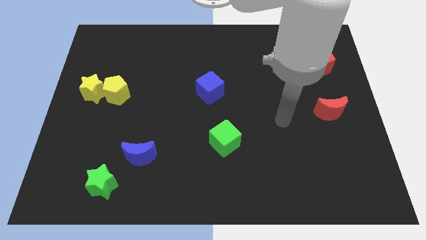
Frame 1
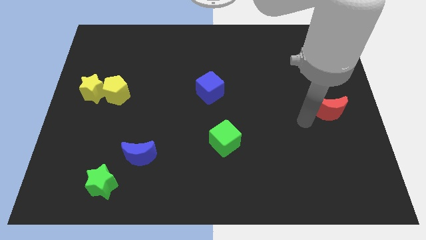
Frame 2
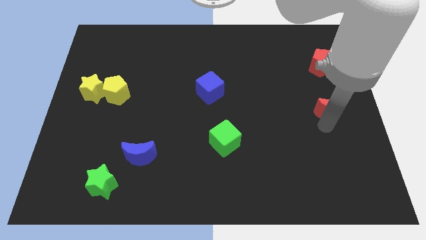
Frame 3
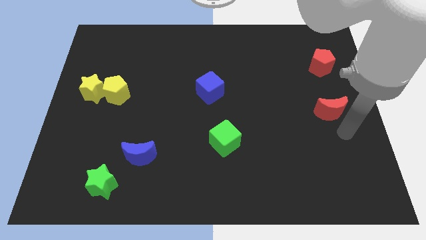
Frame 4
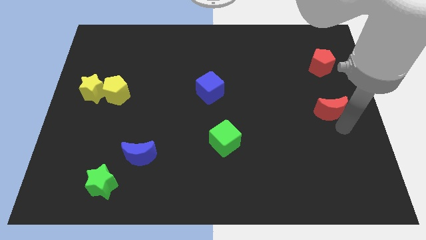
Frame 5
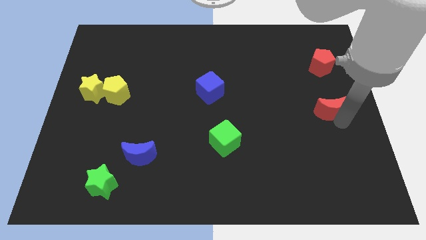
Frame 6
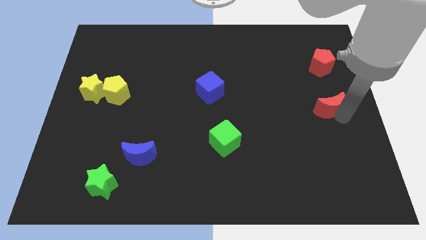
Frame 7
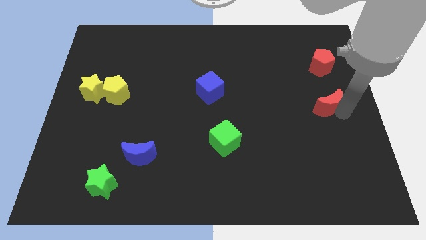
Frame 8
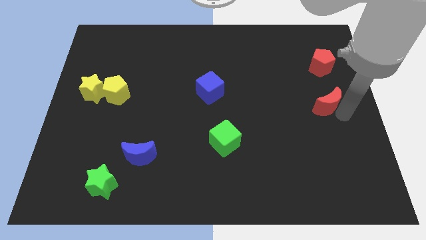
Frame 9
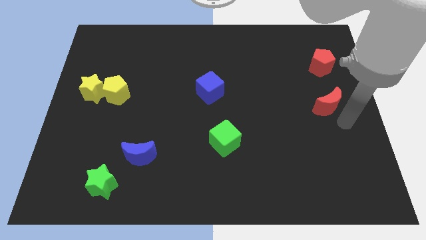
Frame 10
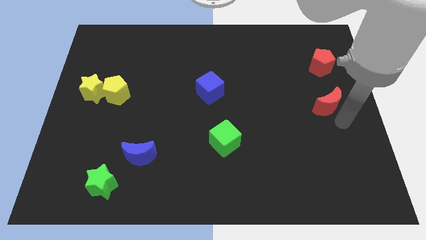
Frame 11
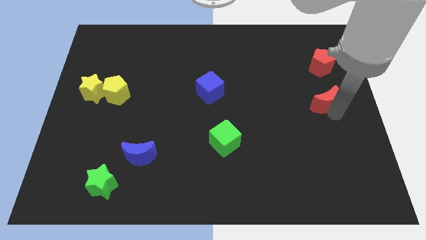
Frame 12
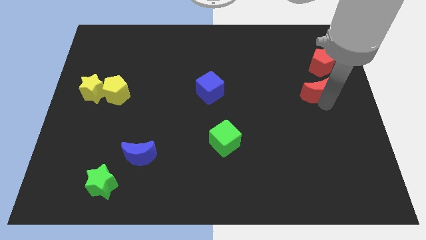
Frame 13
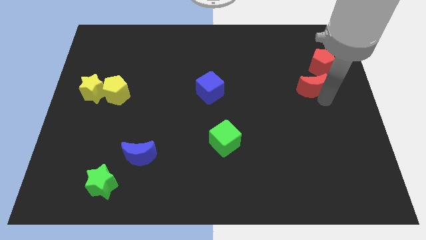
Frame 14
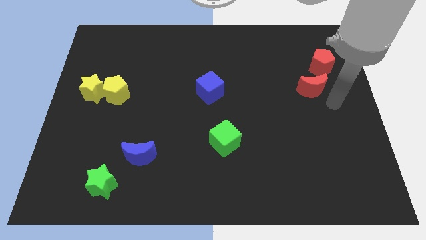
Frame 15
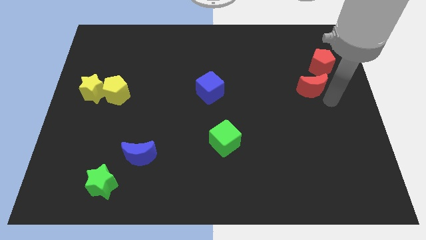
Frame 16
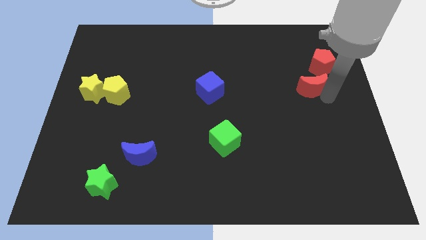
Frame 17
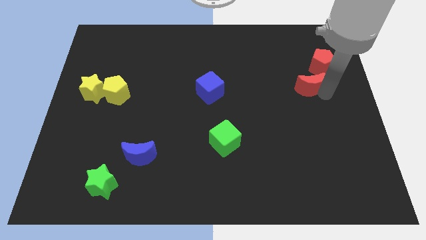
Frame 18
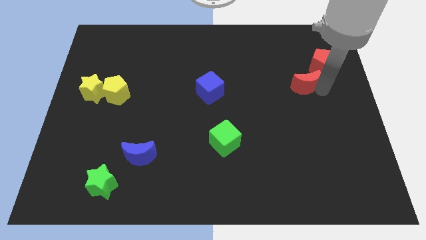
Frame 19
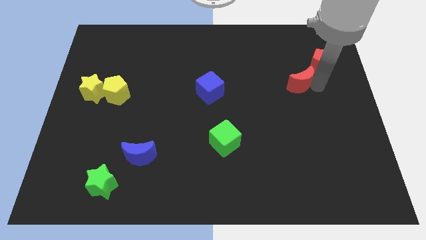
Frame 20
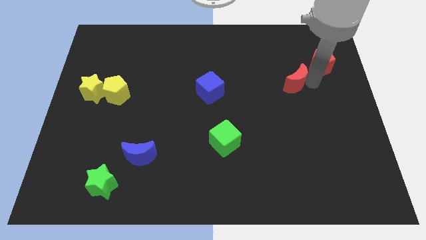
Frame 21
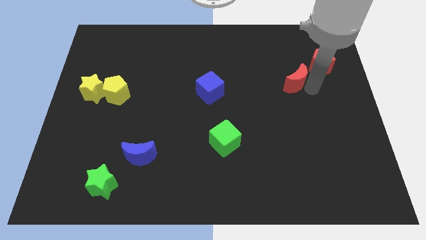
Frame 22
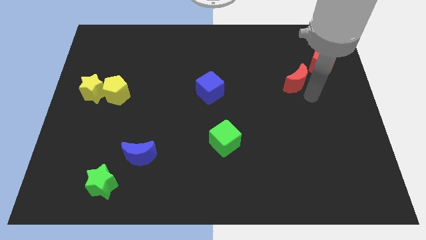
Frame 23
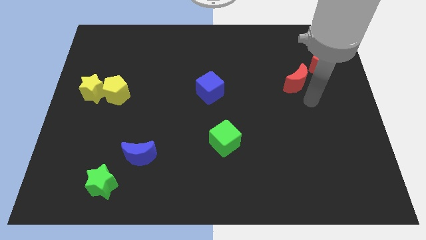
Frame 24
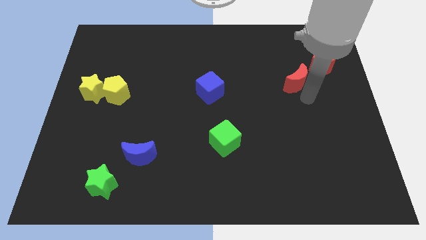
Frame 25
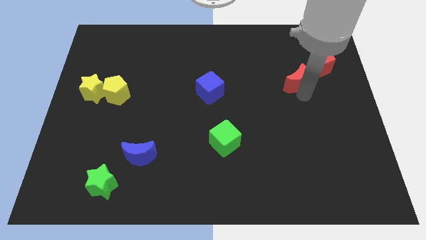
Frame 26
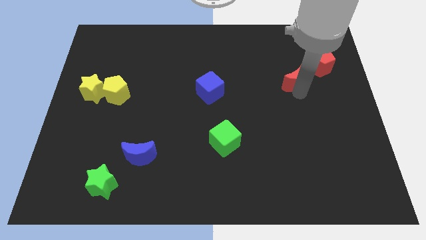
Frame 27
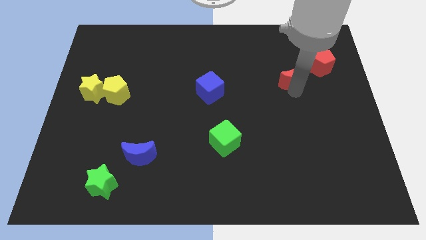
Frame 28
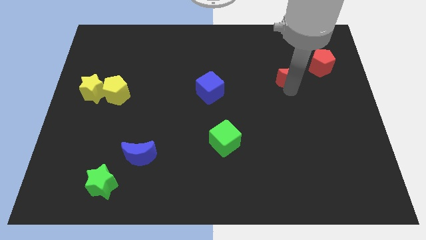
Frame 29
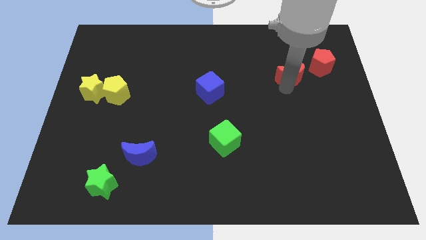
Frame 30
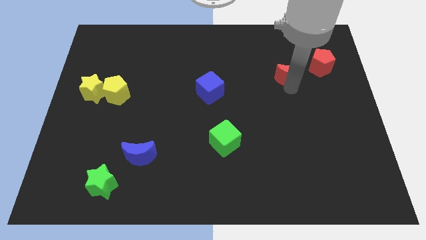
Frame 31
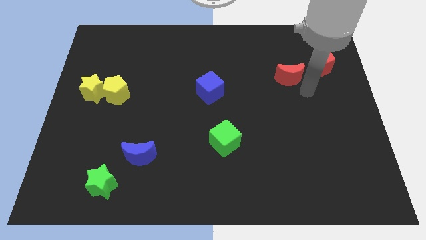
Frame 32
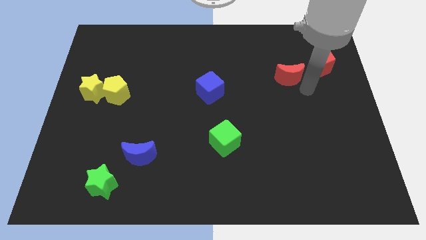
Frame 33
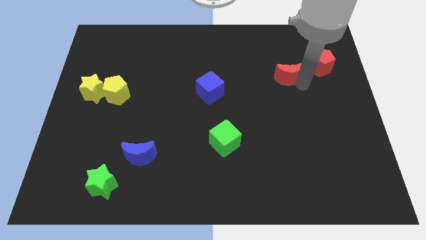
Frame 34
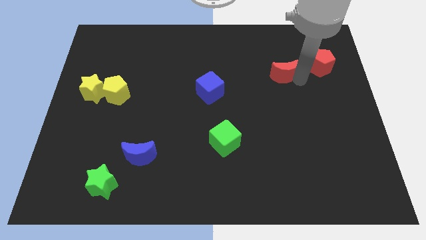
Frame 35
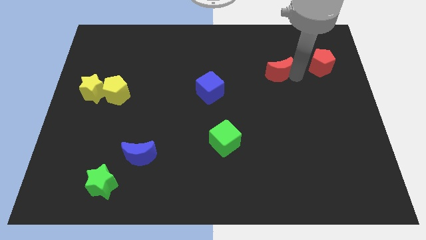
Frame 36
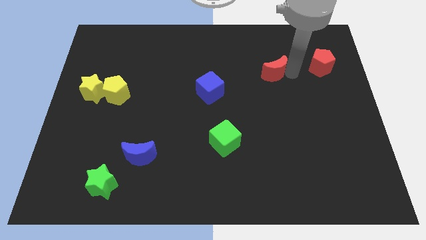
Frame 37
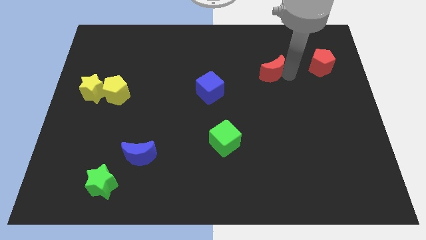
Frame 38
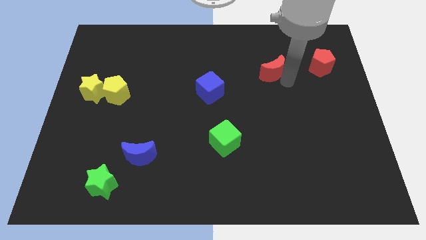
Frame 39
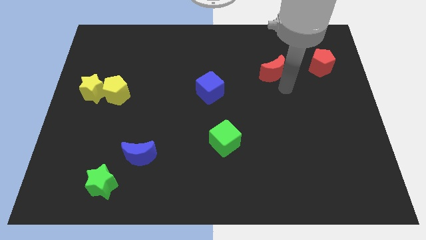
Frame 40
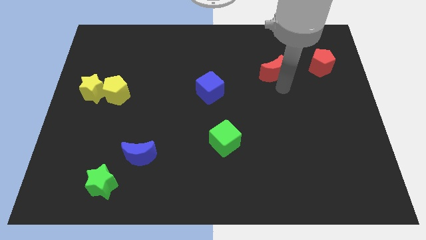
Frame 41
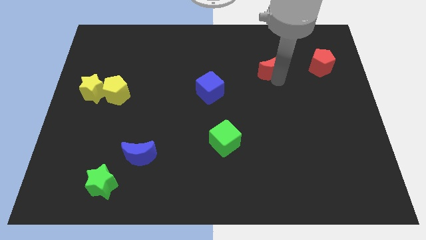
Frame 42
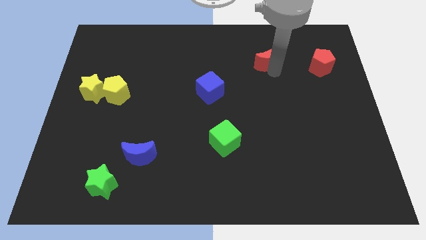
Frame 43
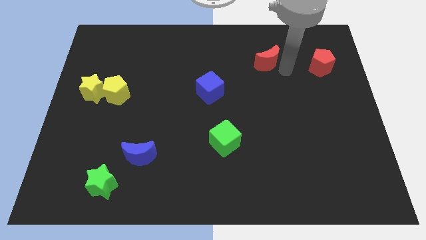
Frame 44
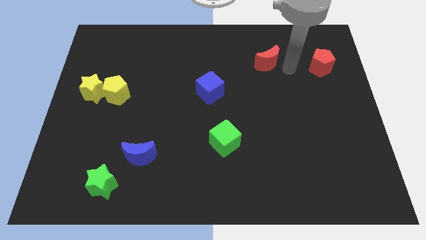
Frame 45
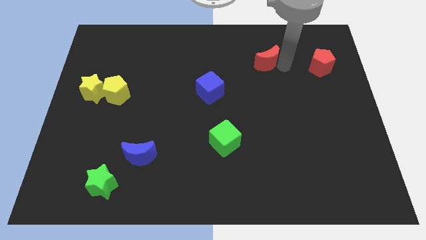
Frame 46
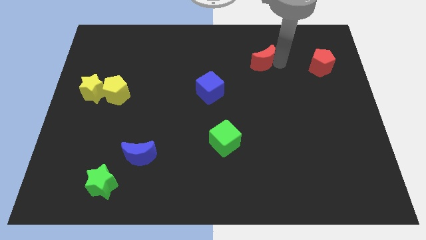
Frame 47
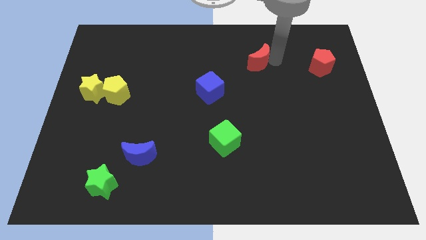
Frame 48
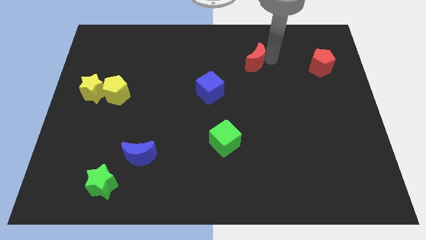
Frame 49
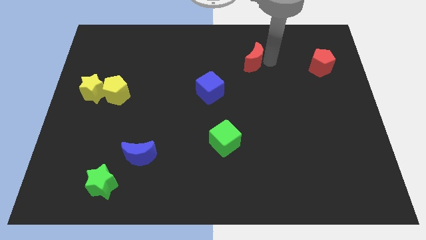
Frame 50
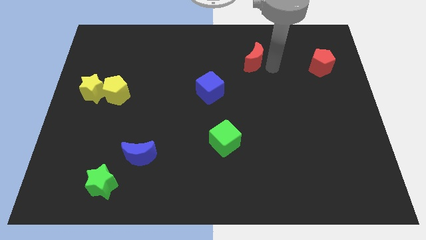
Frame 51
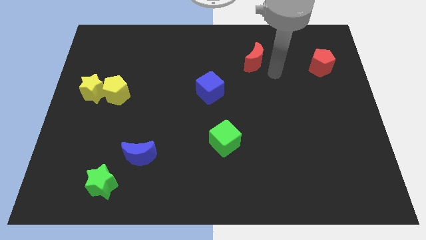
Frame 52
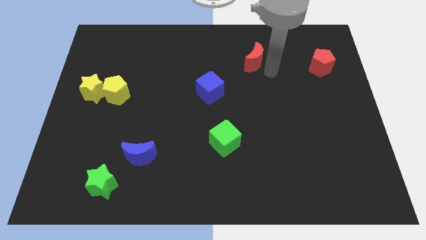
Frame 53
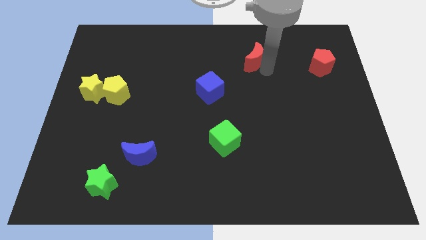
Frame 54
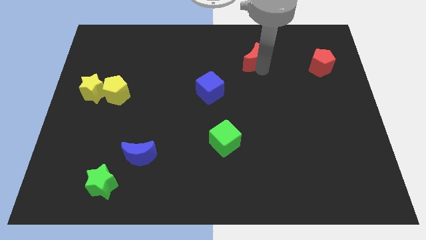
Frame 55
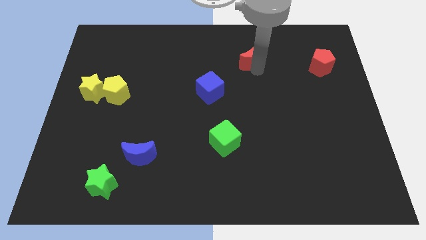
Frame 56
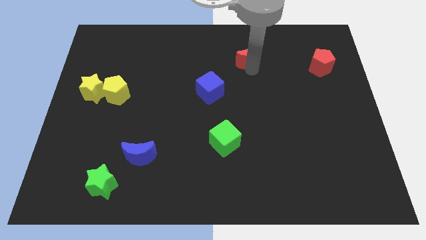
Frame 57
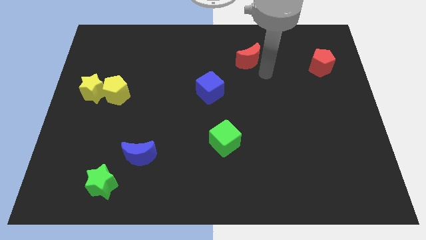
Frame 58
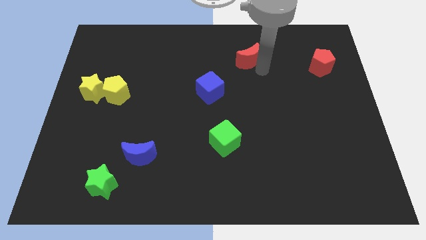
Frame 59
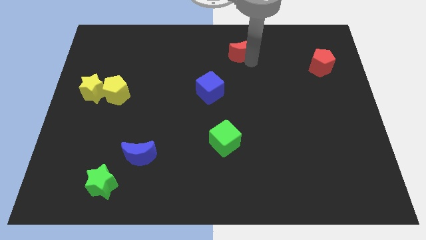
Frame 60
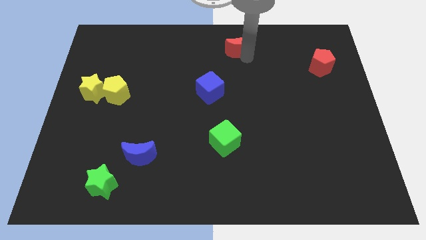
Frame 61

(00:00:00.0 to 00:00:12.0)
push the red moon to the top side
